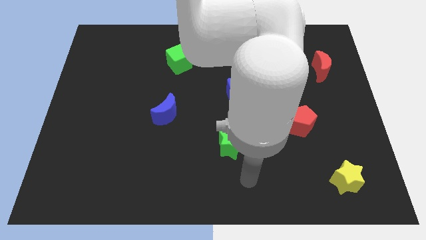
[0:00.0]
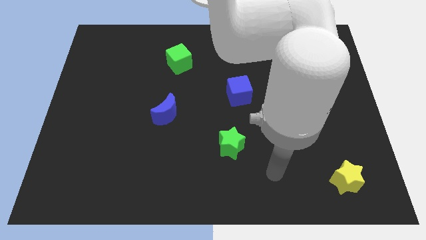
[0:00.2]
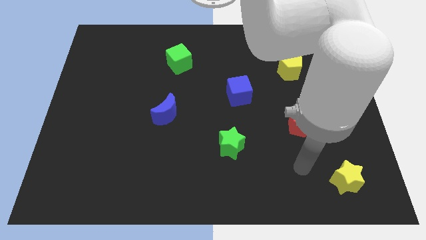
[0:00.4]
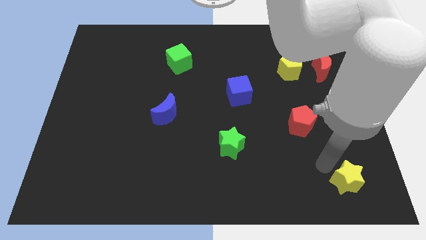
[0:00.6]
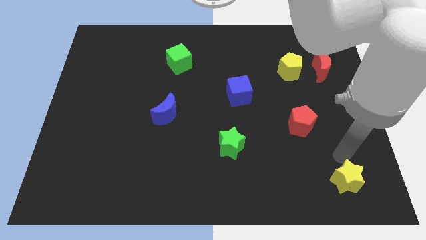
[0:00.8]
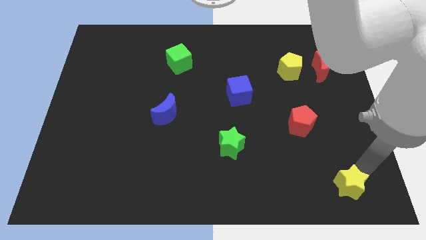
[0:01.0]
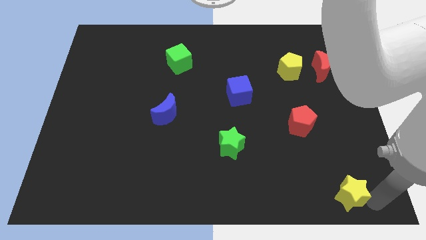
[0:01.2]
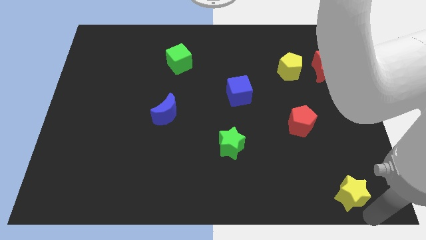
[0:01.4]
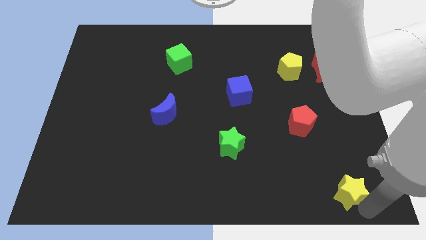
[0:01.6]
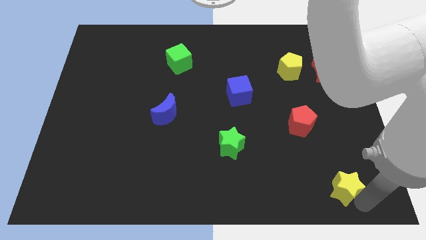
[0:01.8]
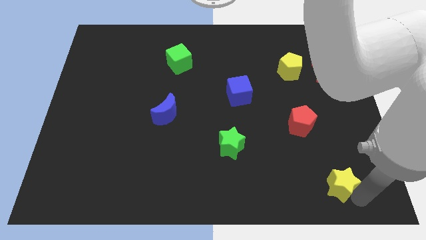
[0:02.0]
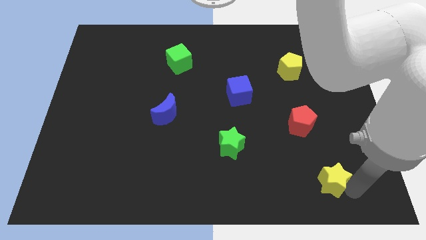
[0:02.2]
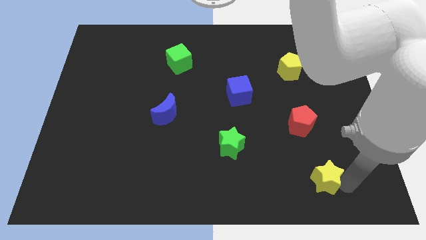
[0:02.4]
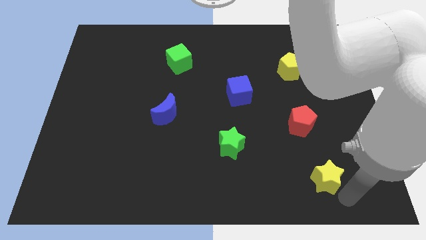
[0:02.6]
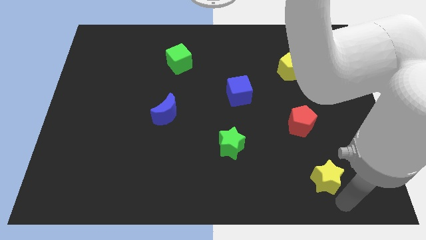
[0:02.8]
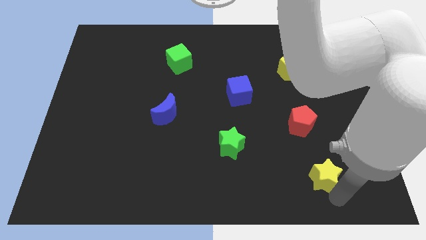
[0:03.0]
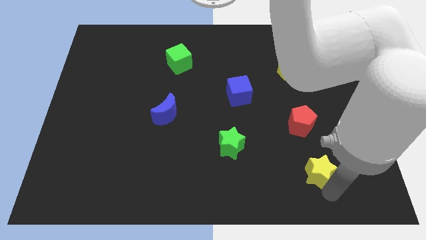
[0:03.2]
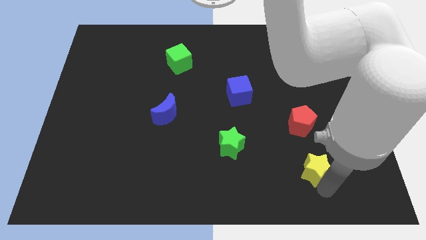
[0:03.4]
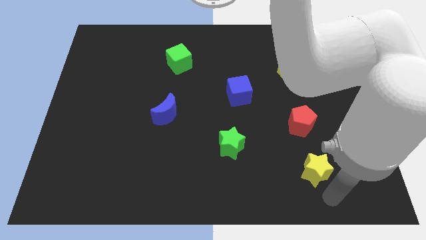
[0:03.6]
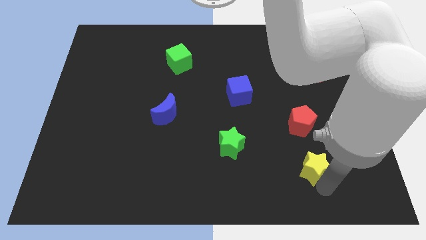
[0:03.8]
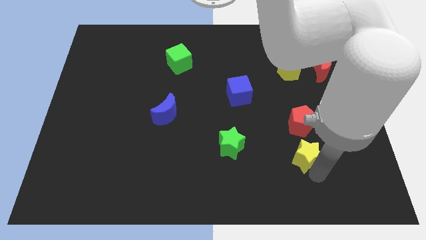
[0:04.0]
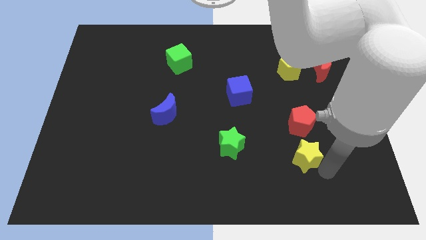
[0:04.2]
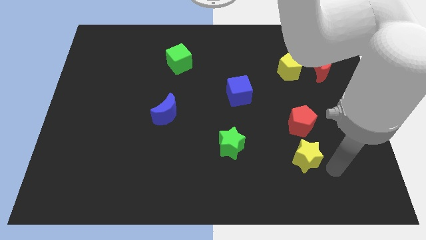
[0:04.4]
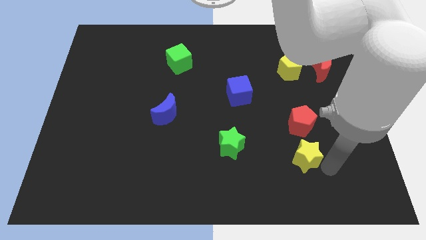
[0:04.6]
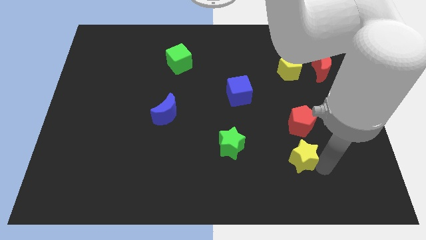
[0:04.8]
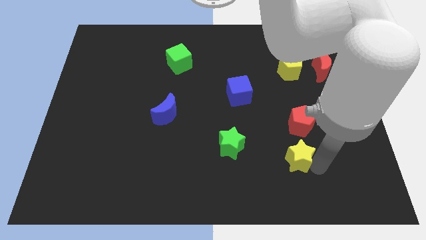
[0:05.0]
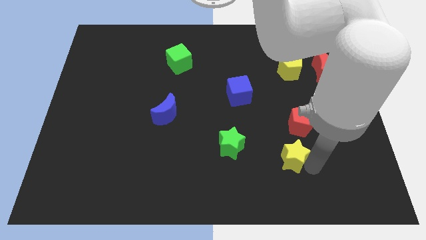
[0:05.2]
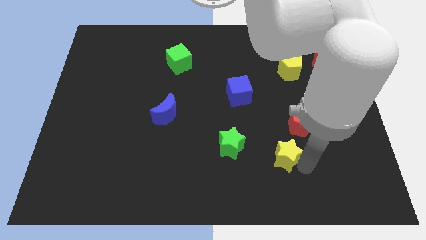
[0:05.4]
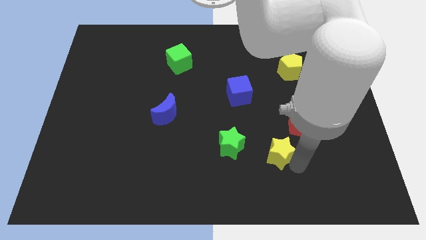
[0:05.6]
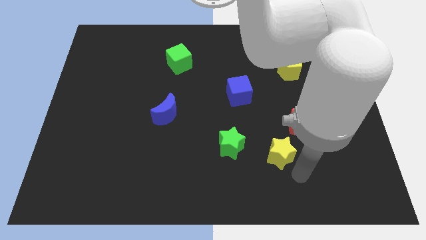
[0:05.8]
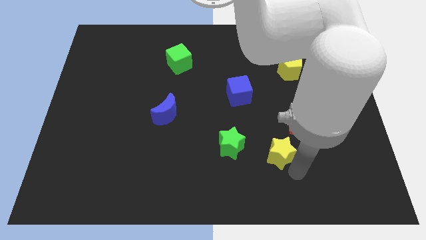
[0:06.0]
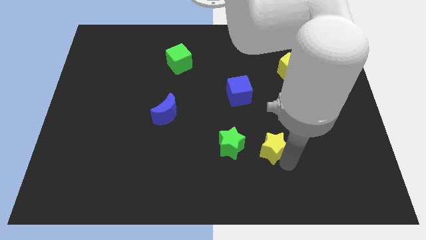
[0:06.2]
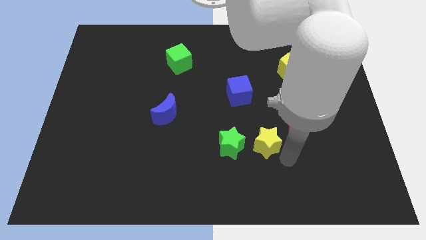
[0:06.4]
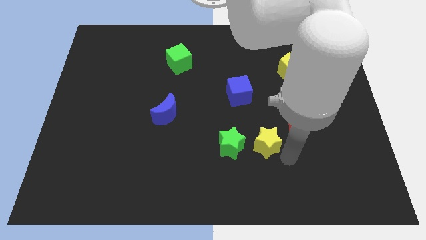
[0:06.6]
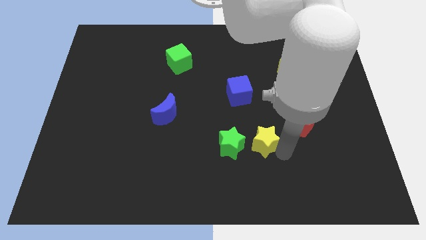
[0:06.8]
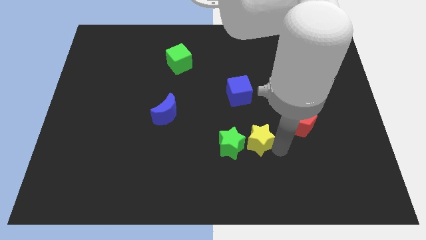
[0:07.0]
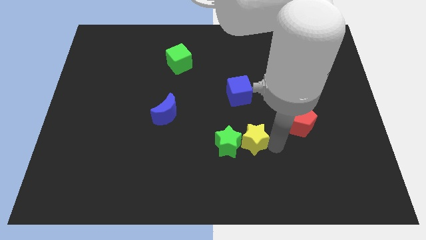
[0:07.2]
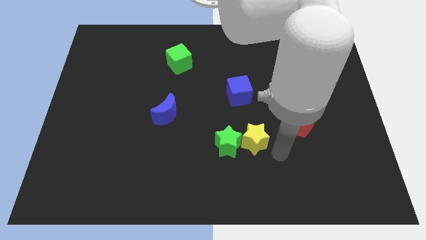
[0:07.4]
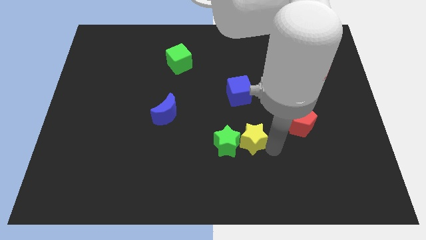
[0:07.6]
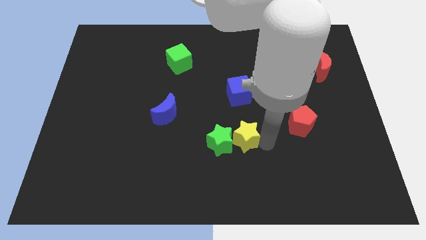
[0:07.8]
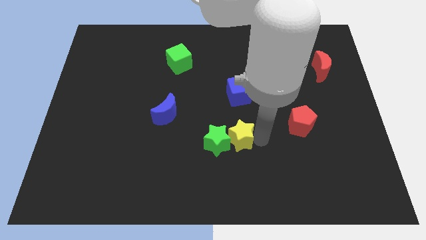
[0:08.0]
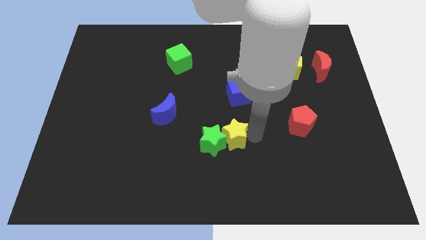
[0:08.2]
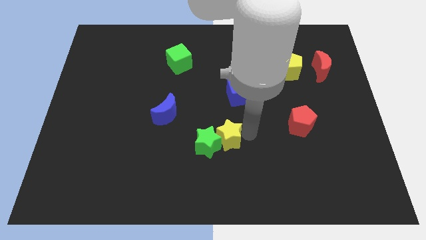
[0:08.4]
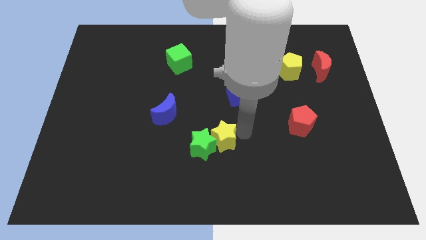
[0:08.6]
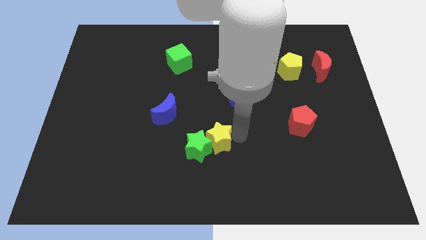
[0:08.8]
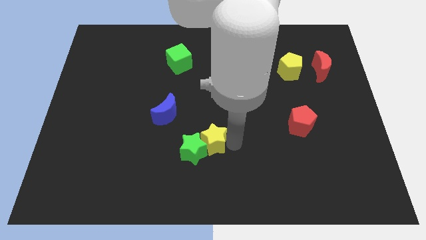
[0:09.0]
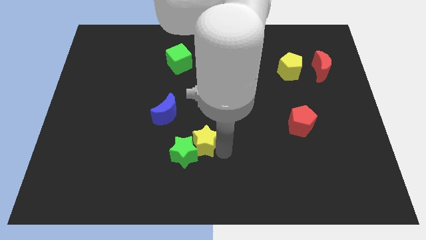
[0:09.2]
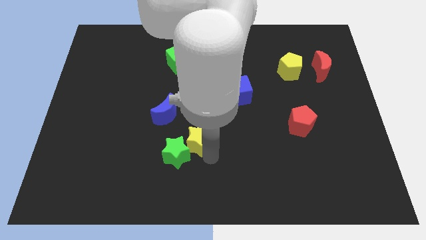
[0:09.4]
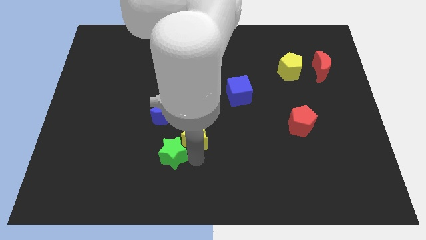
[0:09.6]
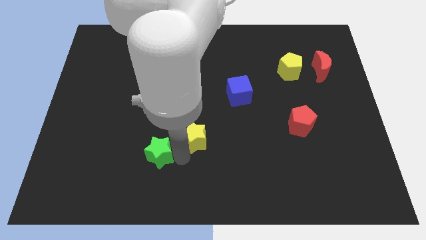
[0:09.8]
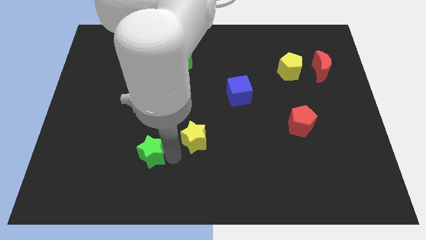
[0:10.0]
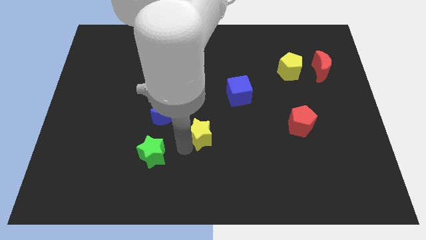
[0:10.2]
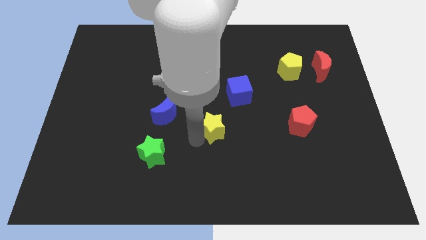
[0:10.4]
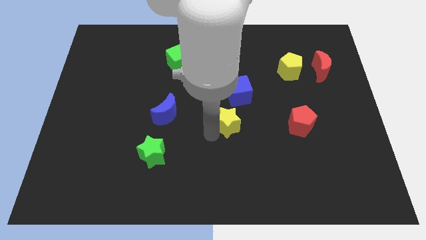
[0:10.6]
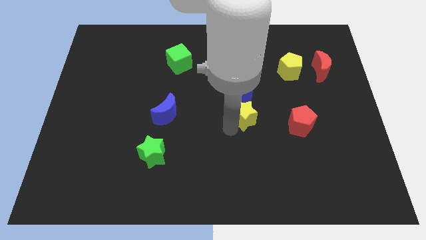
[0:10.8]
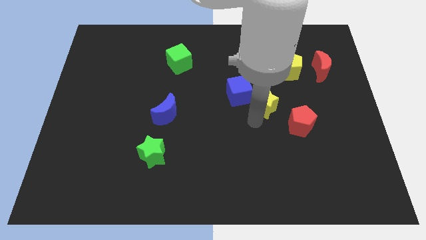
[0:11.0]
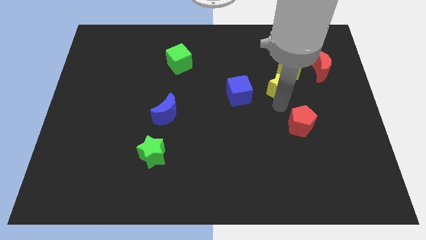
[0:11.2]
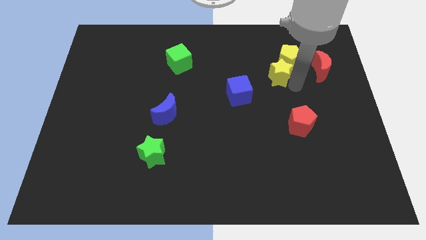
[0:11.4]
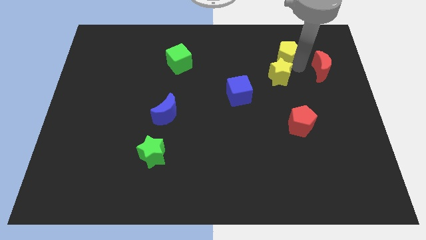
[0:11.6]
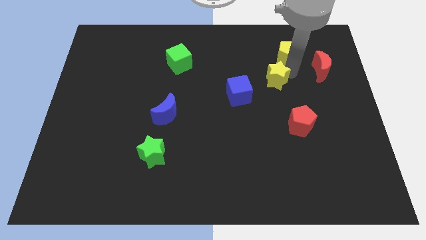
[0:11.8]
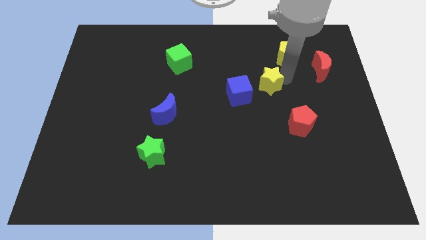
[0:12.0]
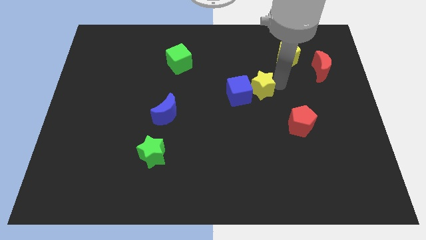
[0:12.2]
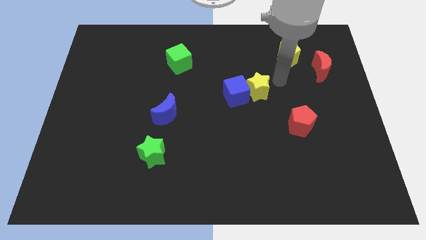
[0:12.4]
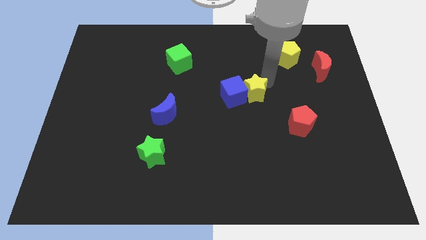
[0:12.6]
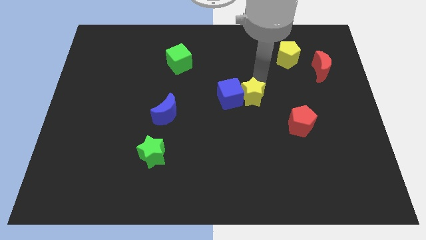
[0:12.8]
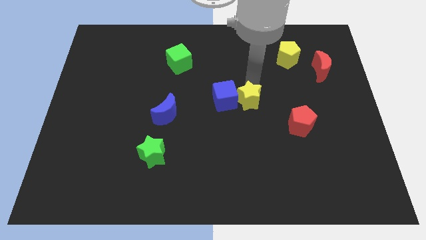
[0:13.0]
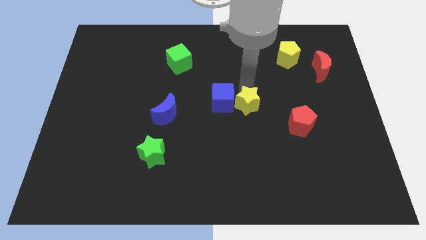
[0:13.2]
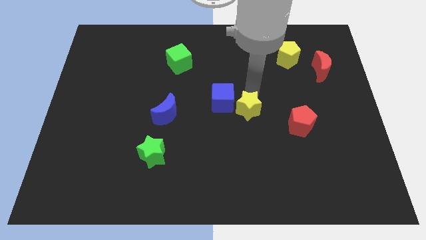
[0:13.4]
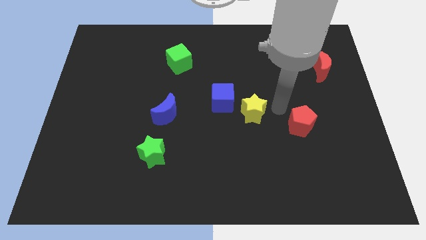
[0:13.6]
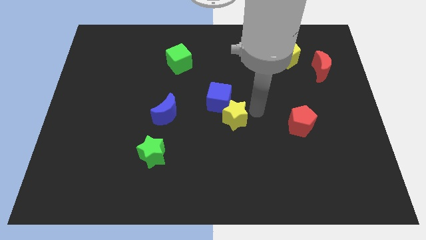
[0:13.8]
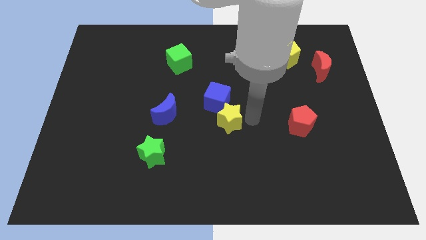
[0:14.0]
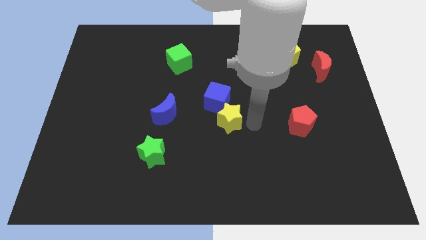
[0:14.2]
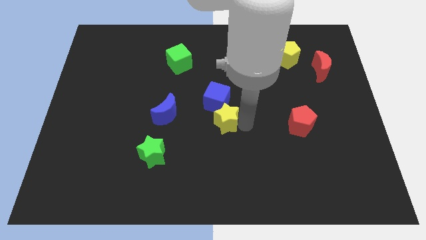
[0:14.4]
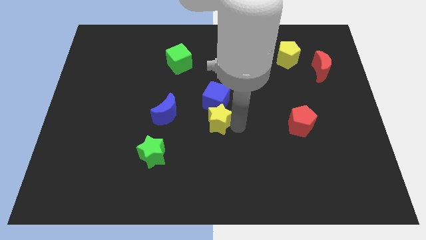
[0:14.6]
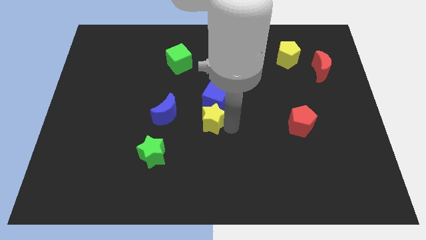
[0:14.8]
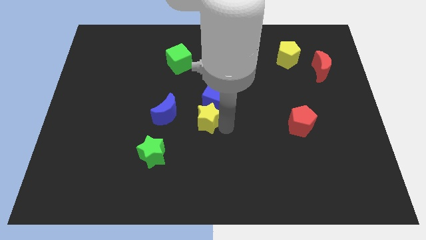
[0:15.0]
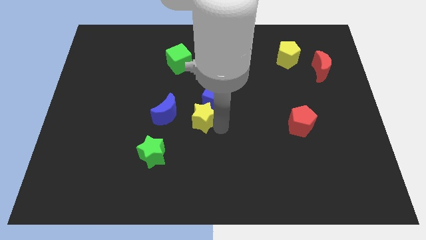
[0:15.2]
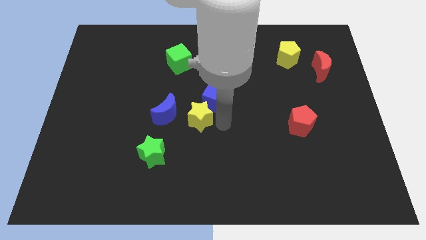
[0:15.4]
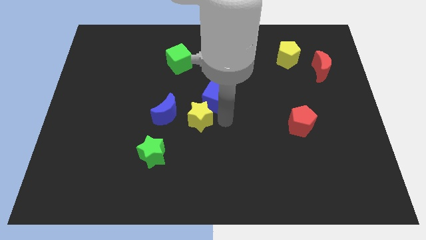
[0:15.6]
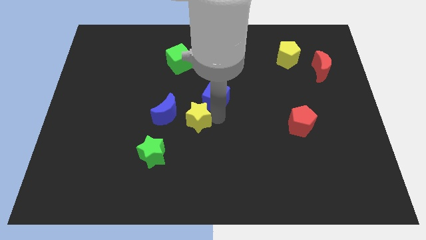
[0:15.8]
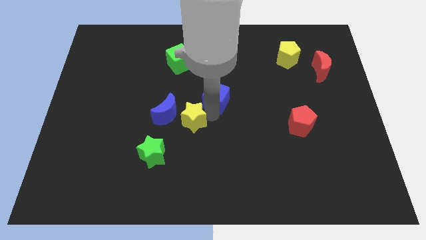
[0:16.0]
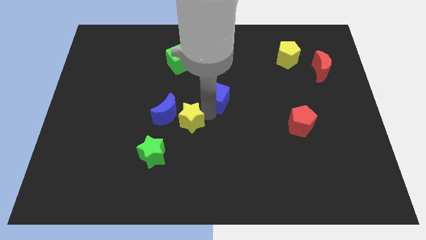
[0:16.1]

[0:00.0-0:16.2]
put the yellow star close to the blue moon
